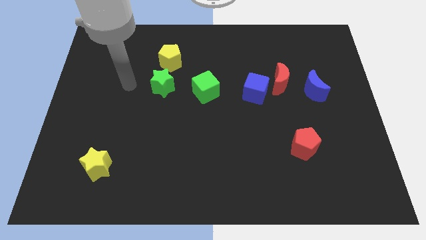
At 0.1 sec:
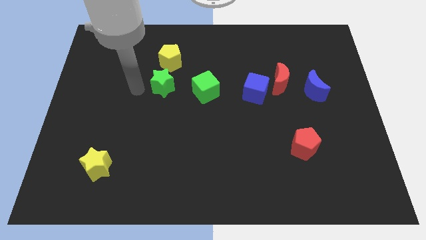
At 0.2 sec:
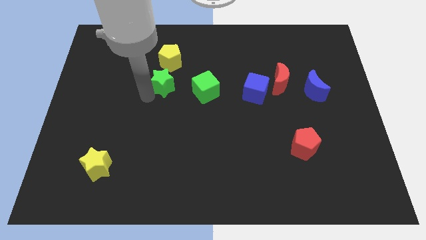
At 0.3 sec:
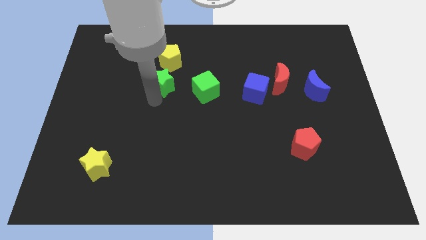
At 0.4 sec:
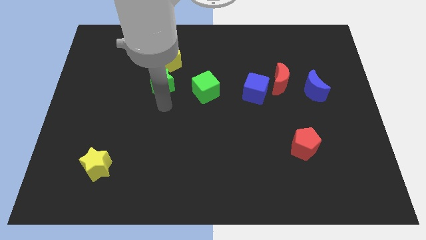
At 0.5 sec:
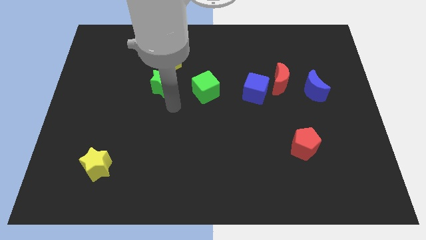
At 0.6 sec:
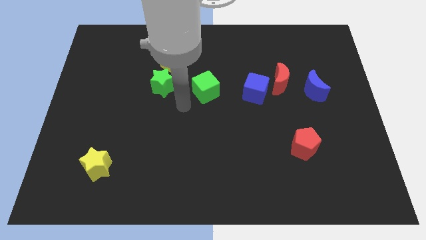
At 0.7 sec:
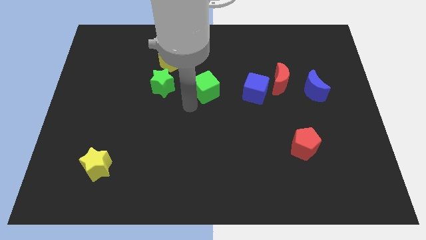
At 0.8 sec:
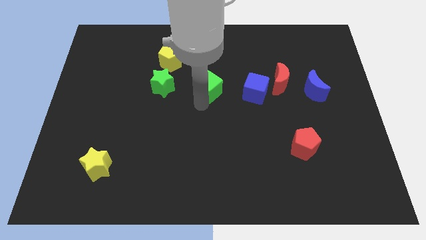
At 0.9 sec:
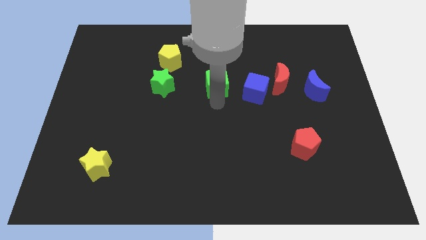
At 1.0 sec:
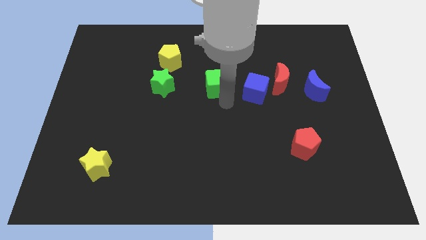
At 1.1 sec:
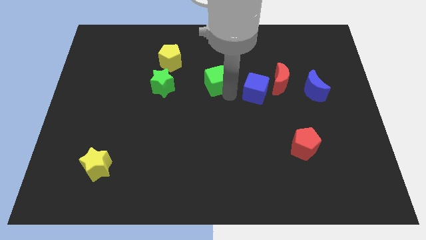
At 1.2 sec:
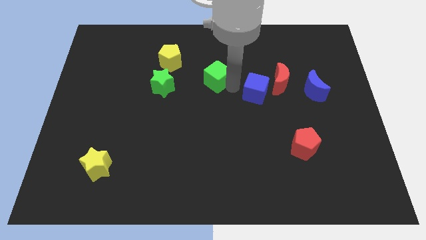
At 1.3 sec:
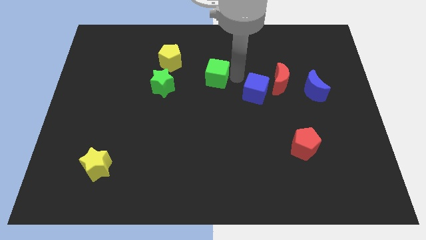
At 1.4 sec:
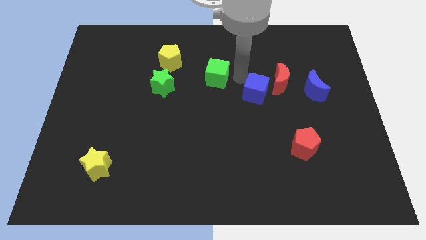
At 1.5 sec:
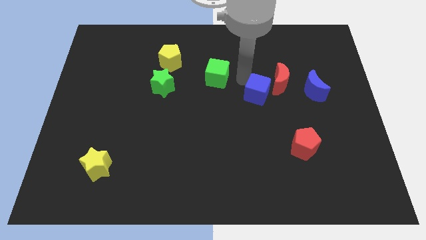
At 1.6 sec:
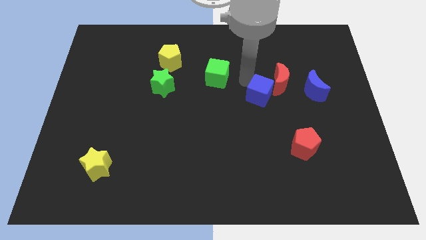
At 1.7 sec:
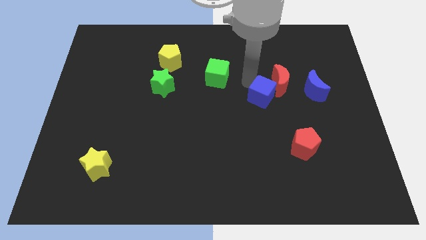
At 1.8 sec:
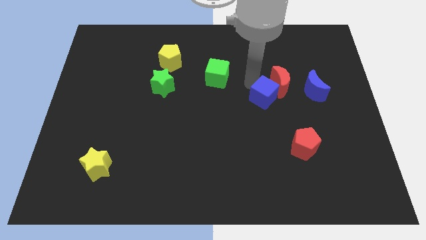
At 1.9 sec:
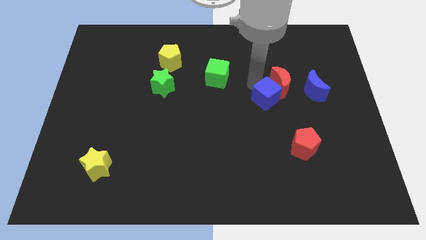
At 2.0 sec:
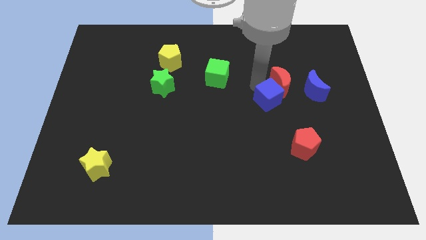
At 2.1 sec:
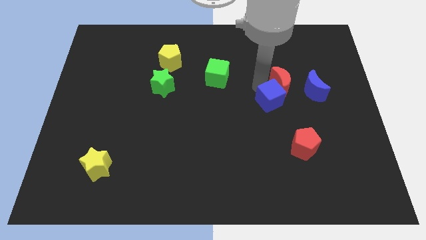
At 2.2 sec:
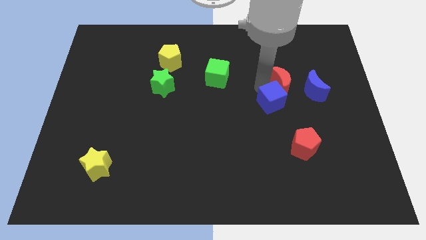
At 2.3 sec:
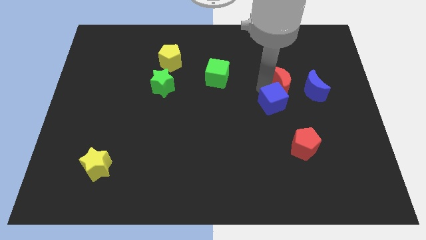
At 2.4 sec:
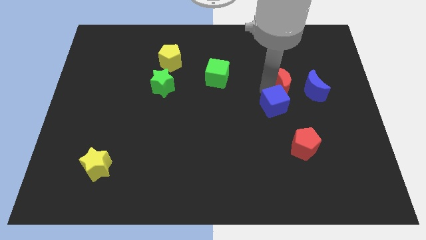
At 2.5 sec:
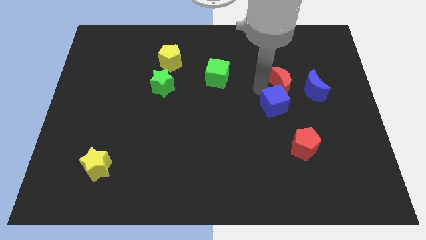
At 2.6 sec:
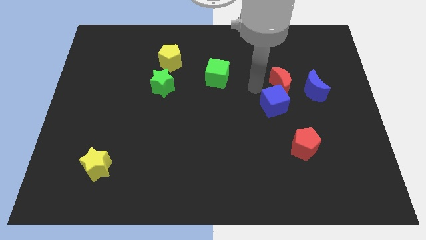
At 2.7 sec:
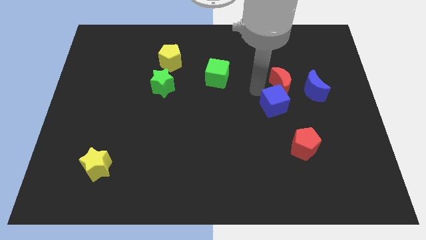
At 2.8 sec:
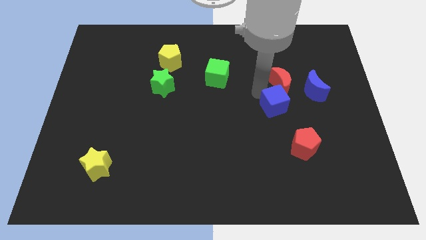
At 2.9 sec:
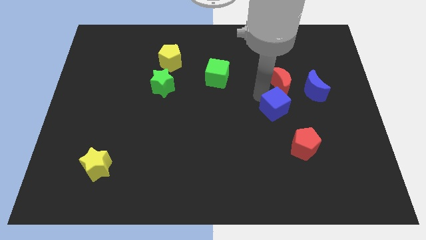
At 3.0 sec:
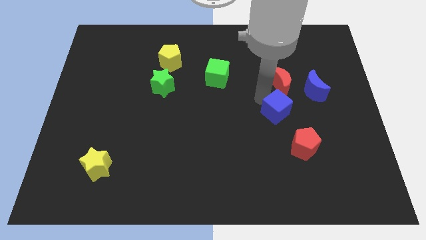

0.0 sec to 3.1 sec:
move the blue cube a bit downwards and then right

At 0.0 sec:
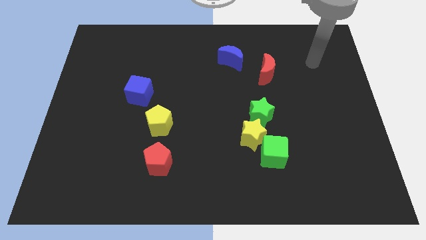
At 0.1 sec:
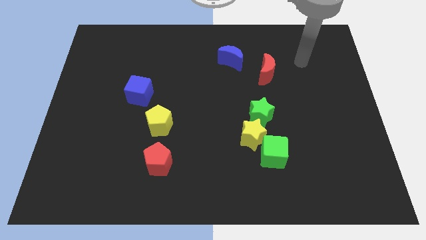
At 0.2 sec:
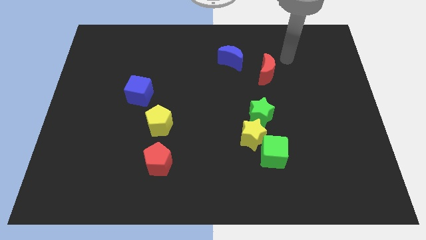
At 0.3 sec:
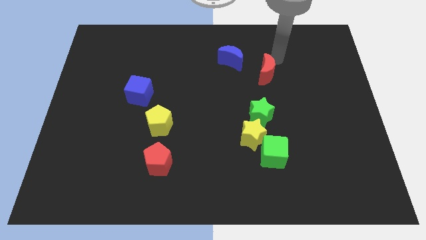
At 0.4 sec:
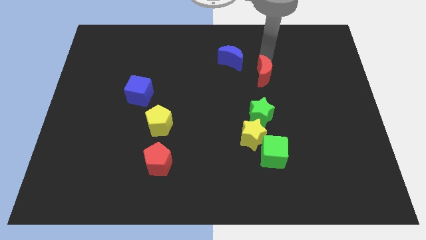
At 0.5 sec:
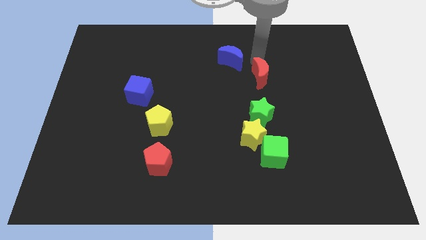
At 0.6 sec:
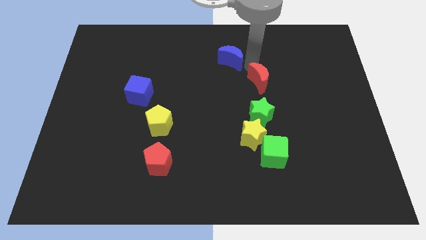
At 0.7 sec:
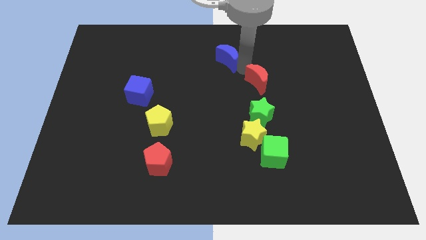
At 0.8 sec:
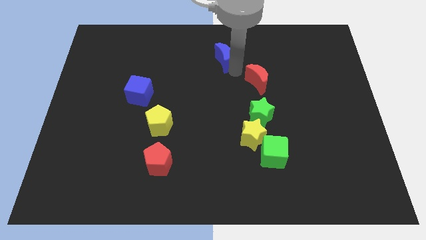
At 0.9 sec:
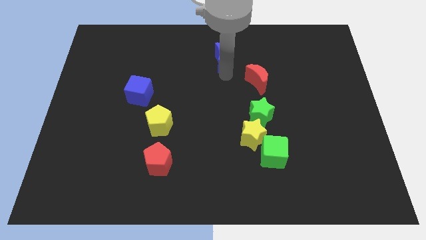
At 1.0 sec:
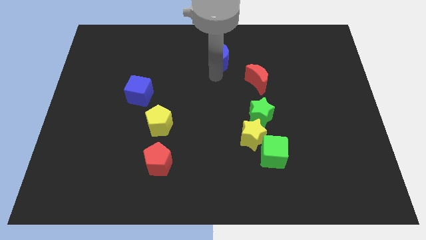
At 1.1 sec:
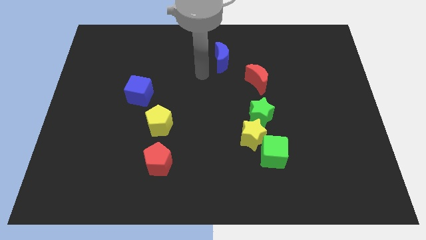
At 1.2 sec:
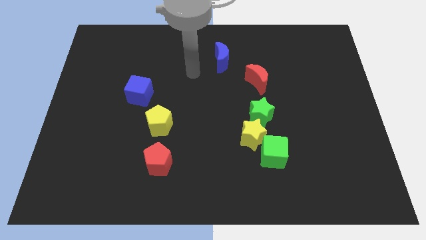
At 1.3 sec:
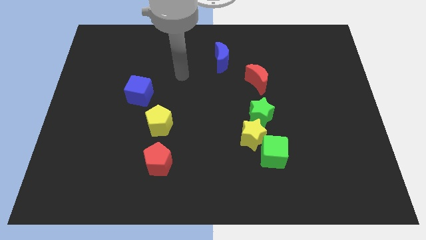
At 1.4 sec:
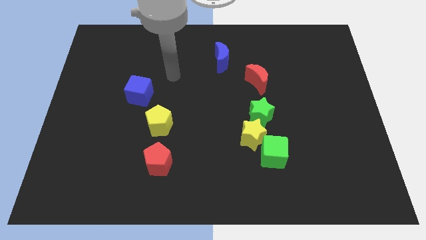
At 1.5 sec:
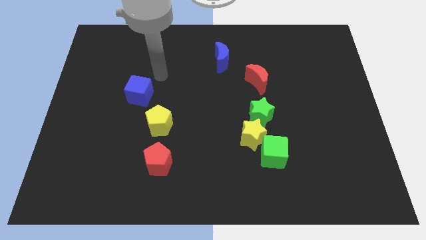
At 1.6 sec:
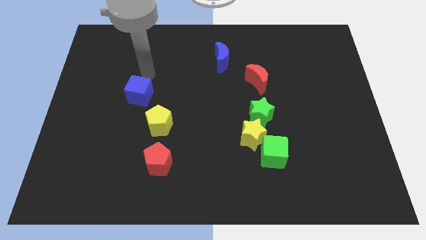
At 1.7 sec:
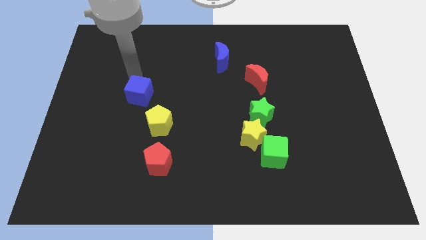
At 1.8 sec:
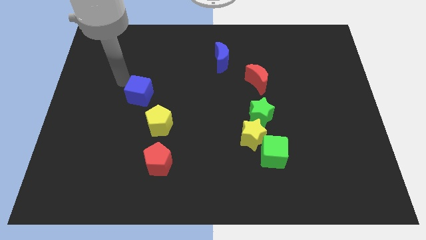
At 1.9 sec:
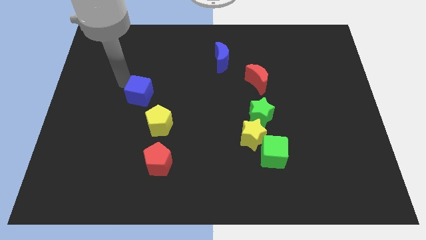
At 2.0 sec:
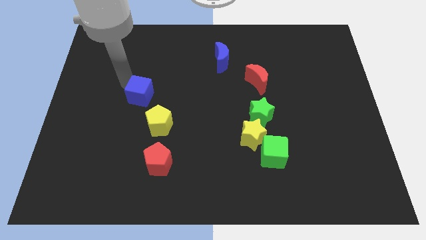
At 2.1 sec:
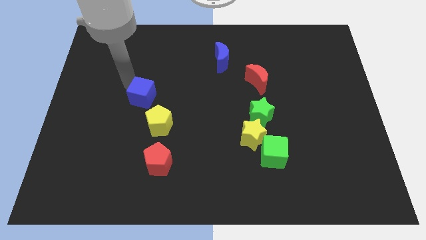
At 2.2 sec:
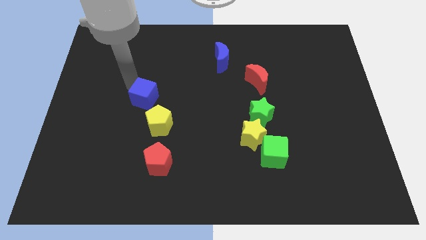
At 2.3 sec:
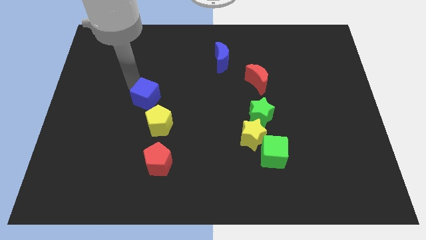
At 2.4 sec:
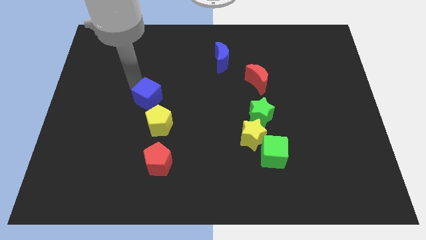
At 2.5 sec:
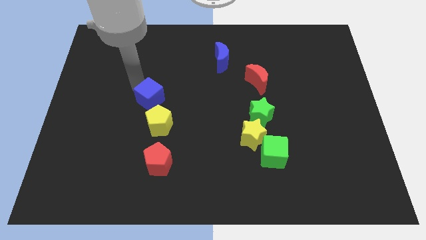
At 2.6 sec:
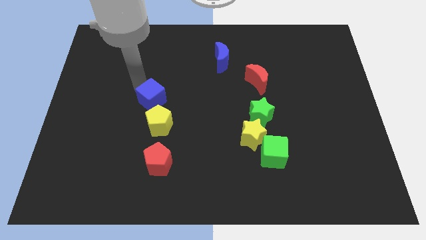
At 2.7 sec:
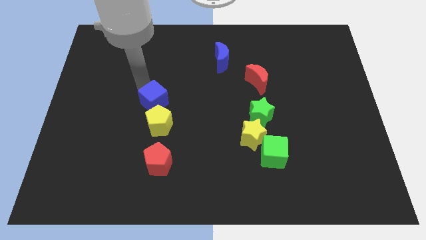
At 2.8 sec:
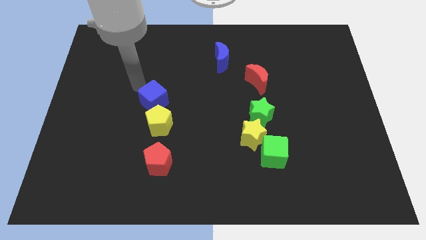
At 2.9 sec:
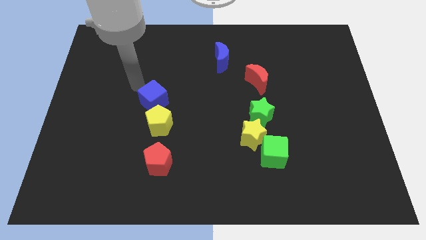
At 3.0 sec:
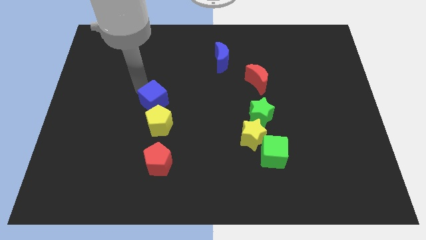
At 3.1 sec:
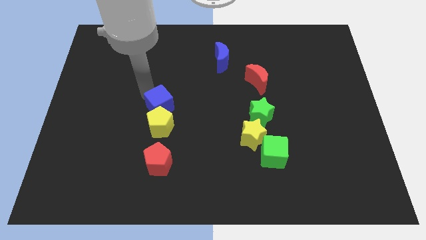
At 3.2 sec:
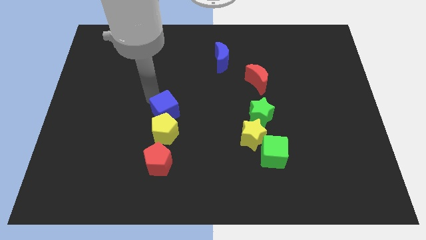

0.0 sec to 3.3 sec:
move the blue cube downwards and to the right a bit

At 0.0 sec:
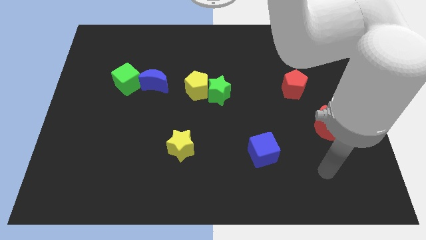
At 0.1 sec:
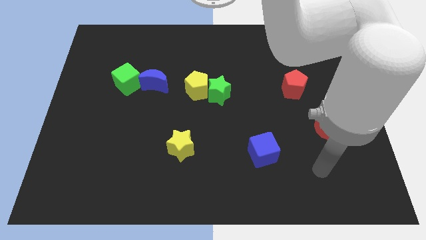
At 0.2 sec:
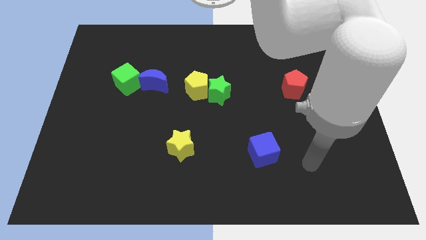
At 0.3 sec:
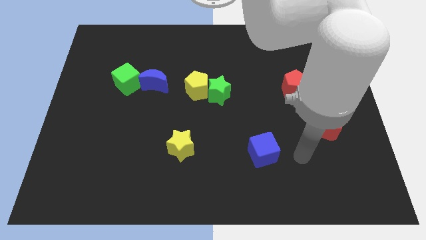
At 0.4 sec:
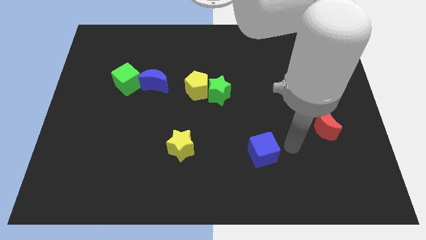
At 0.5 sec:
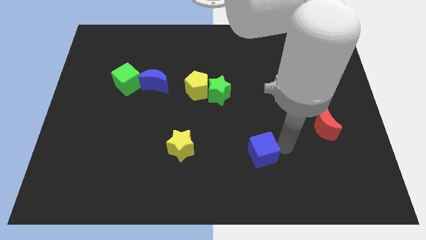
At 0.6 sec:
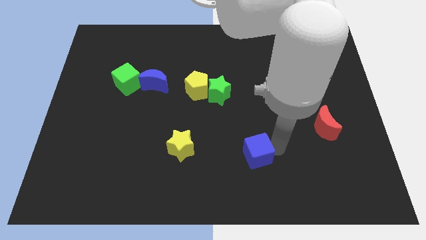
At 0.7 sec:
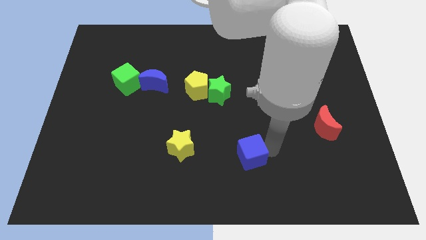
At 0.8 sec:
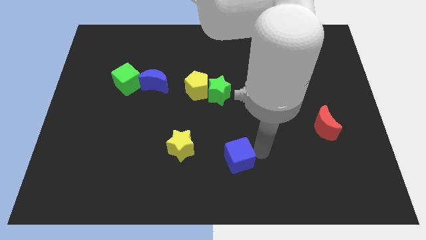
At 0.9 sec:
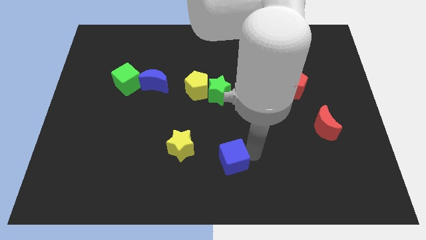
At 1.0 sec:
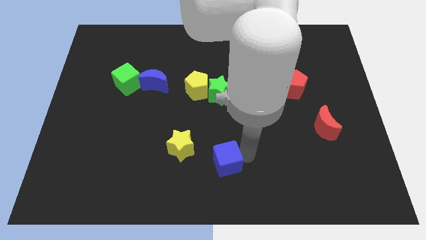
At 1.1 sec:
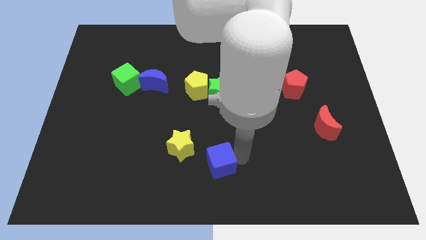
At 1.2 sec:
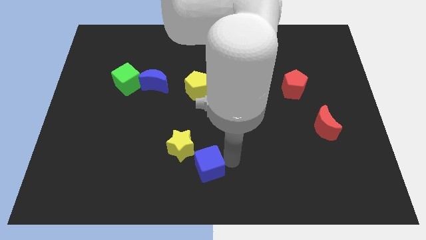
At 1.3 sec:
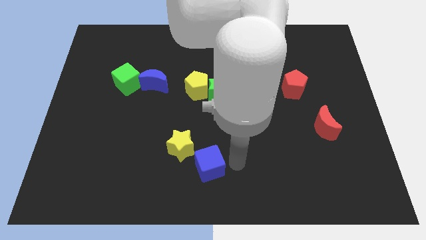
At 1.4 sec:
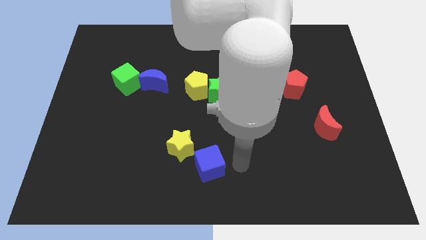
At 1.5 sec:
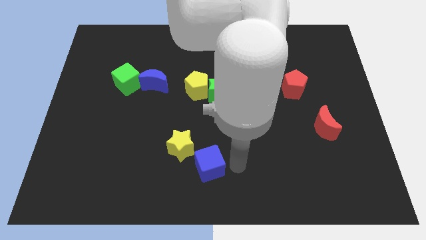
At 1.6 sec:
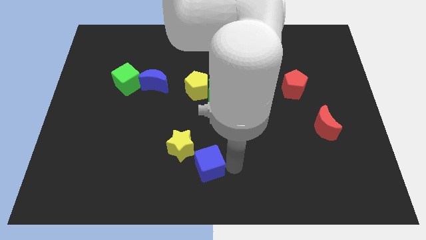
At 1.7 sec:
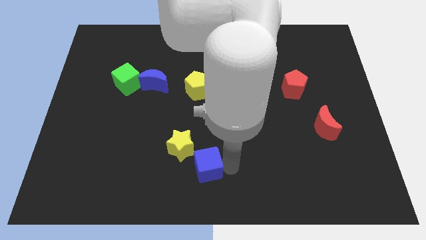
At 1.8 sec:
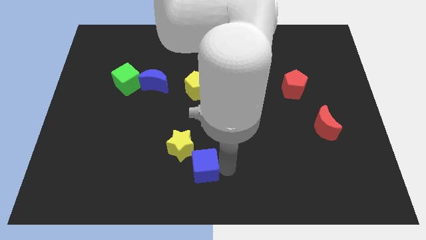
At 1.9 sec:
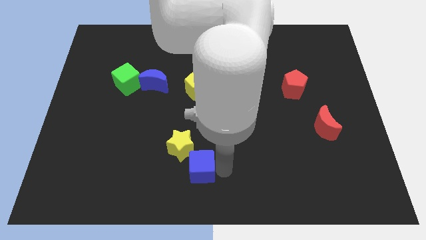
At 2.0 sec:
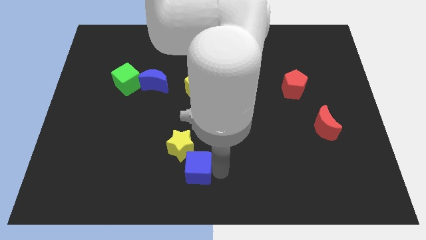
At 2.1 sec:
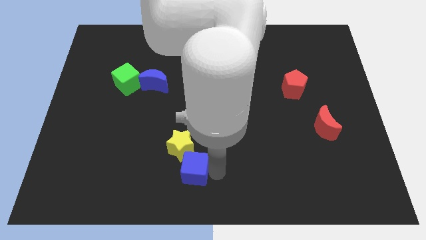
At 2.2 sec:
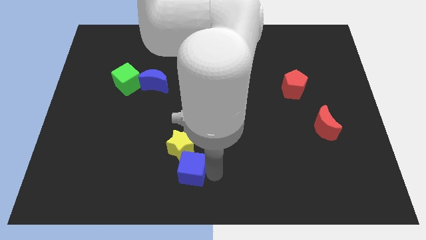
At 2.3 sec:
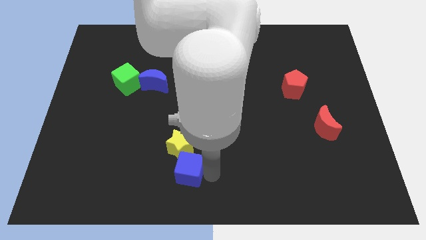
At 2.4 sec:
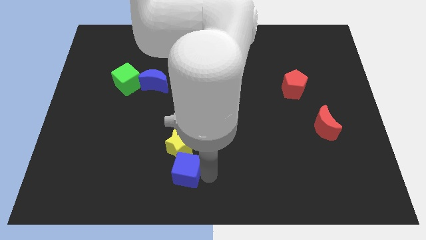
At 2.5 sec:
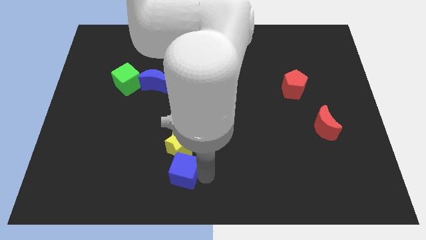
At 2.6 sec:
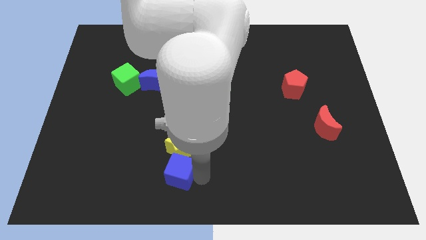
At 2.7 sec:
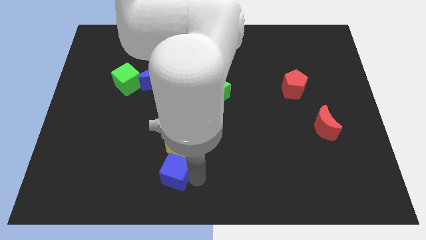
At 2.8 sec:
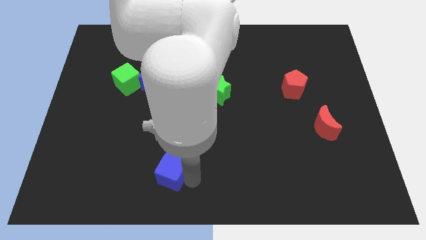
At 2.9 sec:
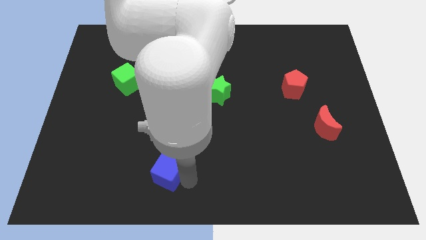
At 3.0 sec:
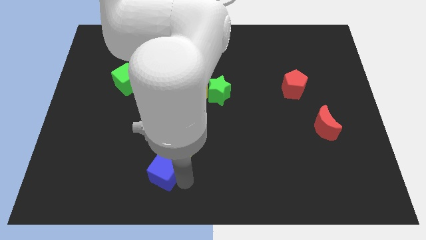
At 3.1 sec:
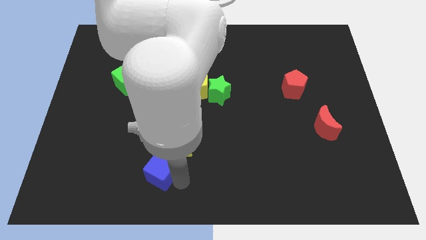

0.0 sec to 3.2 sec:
move the blue cube to the left
